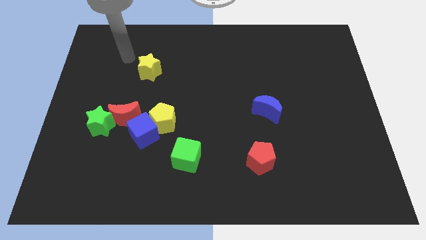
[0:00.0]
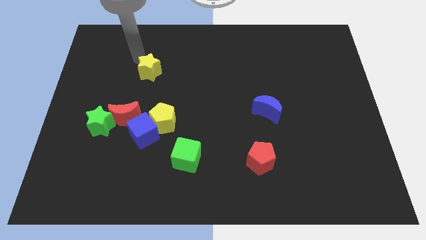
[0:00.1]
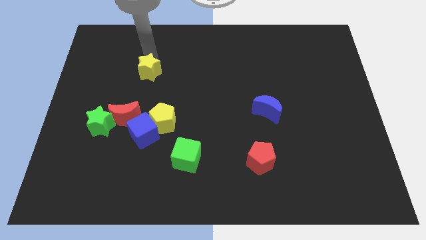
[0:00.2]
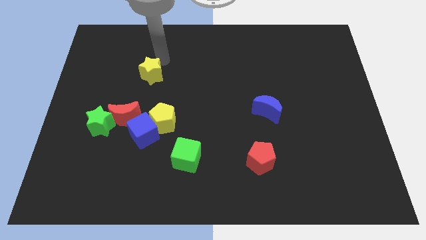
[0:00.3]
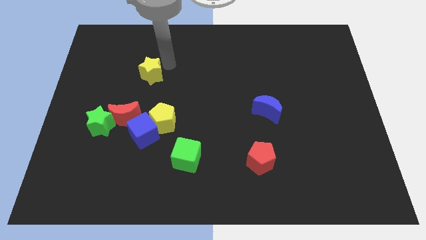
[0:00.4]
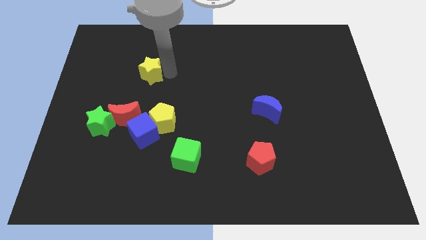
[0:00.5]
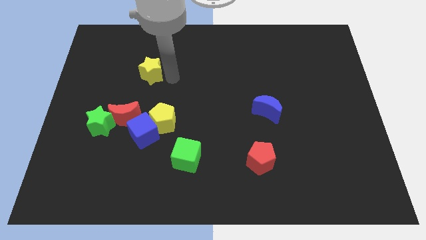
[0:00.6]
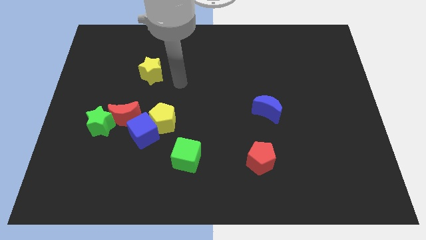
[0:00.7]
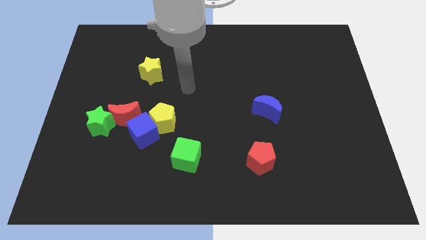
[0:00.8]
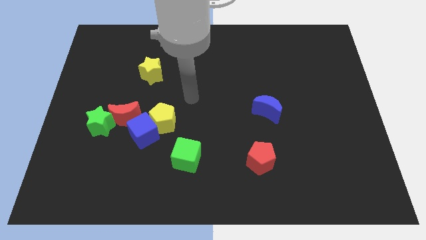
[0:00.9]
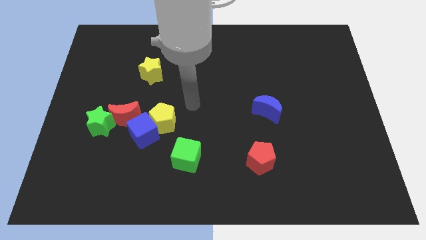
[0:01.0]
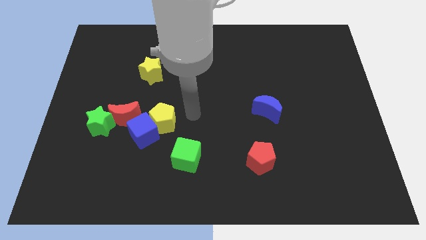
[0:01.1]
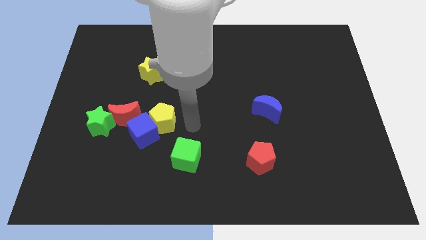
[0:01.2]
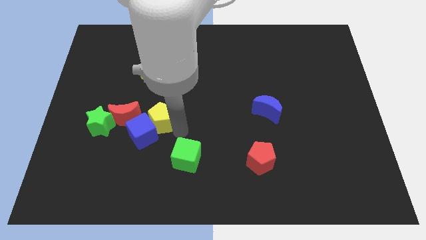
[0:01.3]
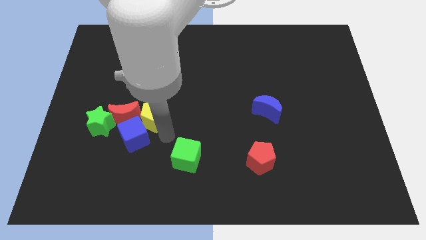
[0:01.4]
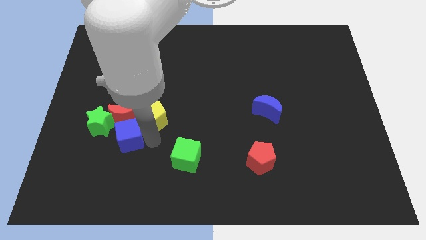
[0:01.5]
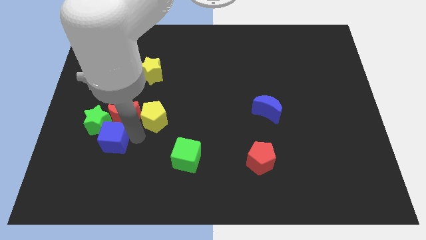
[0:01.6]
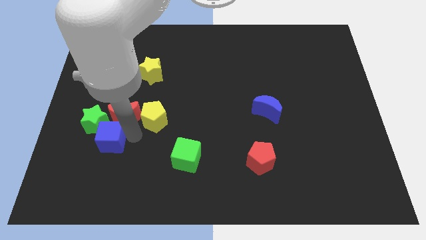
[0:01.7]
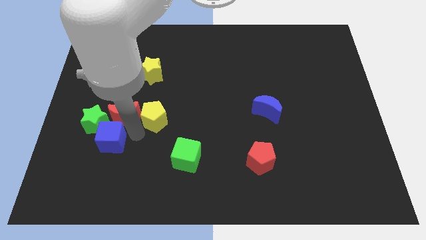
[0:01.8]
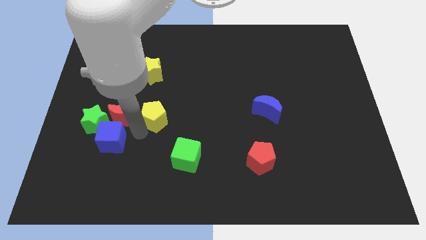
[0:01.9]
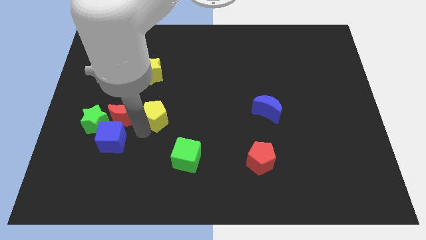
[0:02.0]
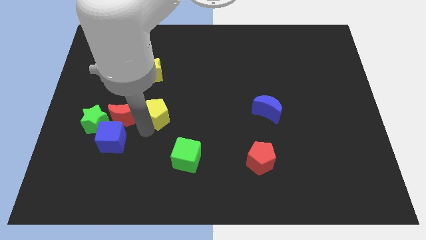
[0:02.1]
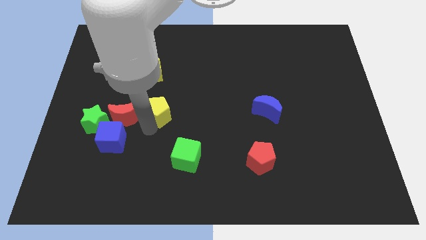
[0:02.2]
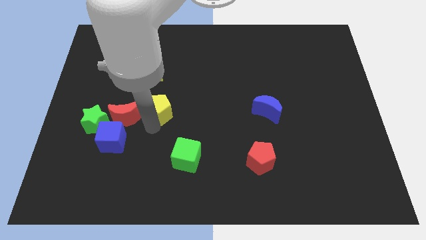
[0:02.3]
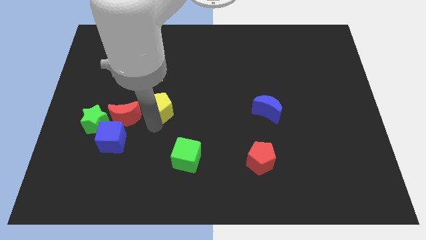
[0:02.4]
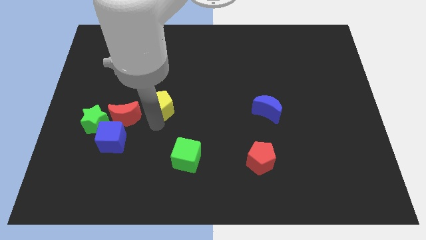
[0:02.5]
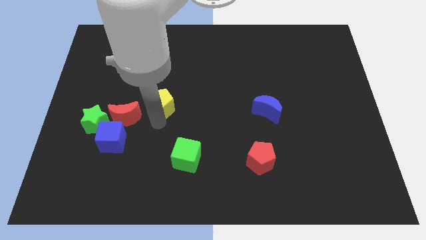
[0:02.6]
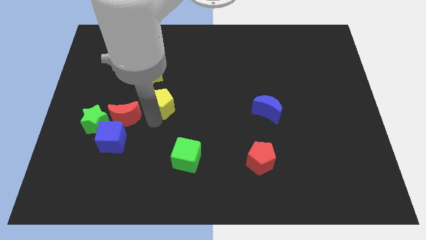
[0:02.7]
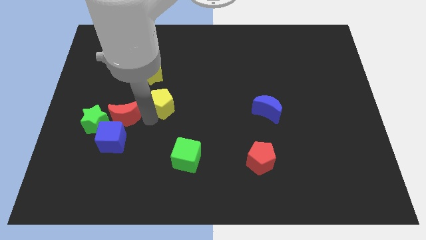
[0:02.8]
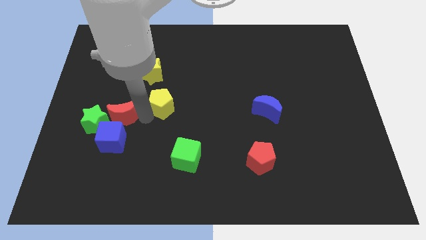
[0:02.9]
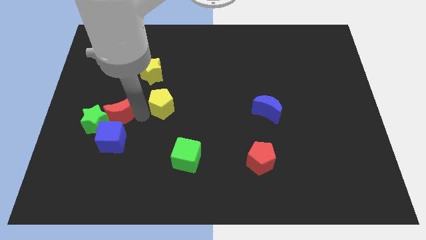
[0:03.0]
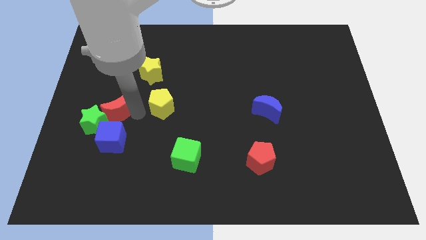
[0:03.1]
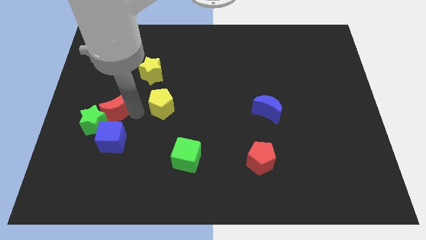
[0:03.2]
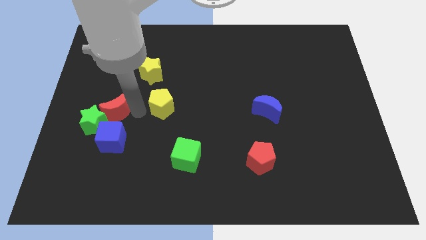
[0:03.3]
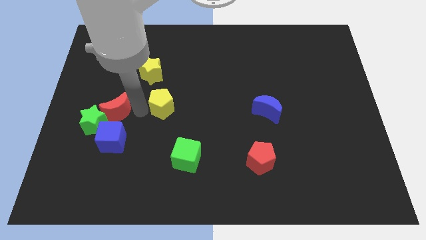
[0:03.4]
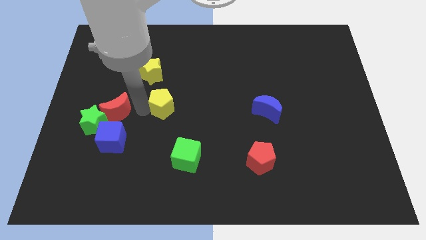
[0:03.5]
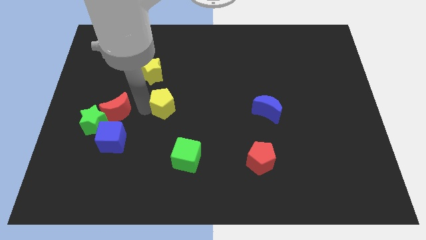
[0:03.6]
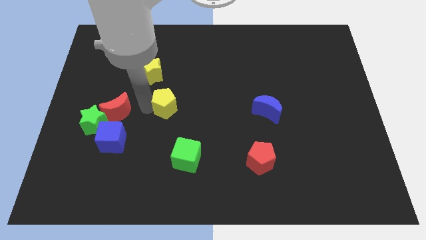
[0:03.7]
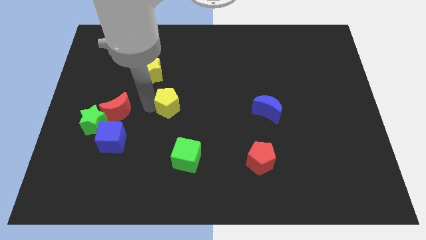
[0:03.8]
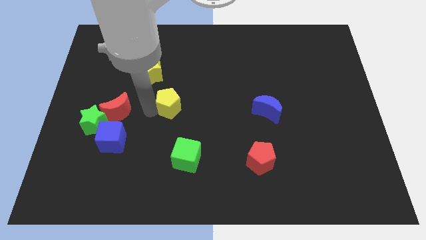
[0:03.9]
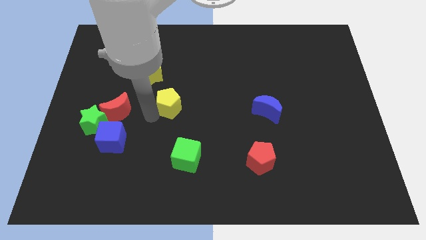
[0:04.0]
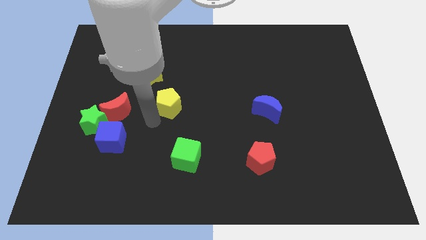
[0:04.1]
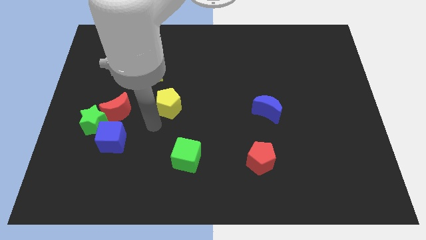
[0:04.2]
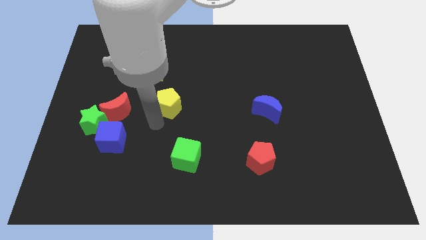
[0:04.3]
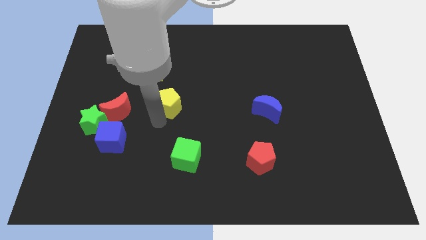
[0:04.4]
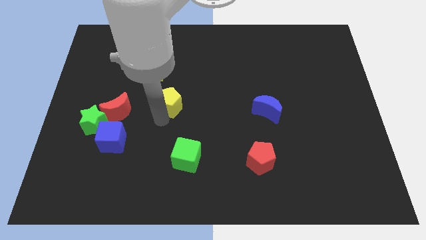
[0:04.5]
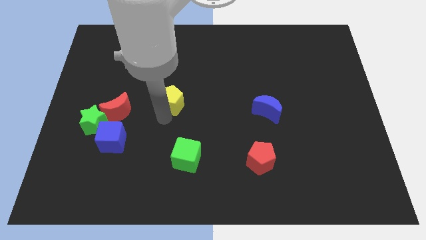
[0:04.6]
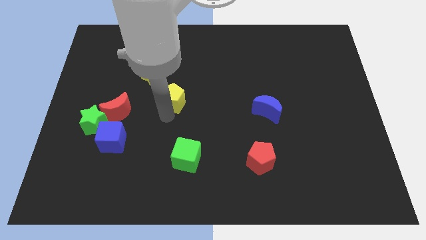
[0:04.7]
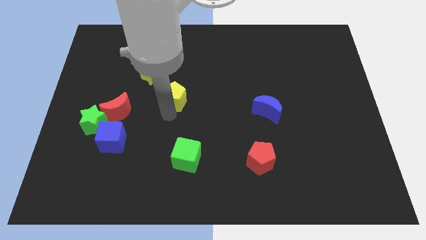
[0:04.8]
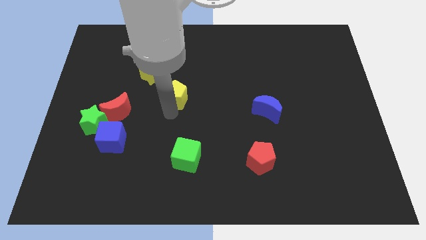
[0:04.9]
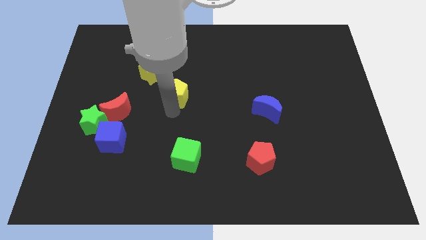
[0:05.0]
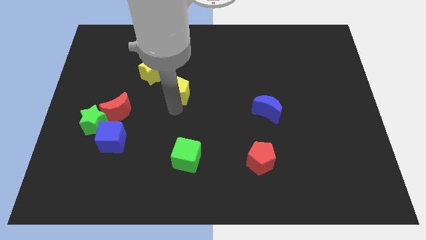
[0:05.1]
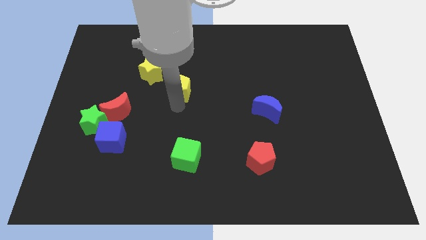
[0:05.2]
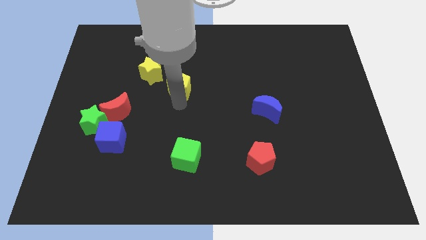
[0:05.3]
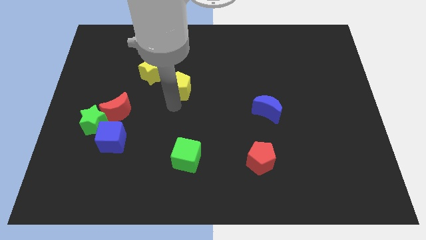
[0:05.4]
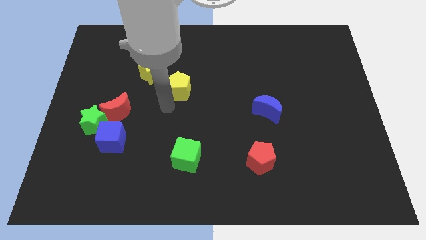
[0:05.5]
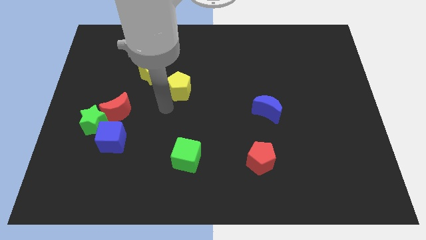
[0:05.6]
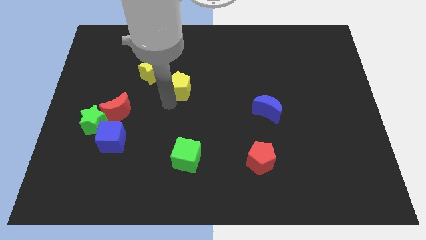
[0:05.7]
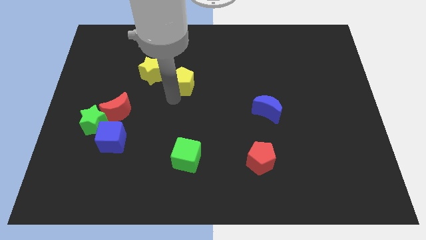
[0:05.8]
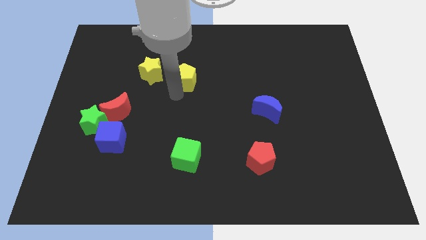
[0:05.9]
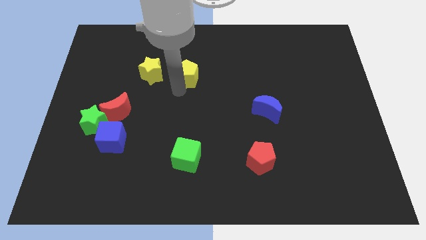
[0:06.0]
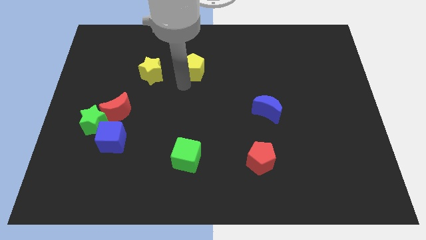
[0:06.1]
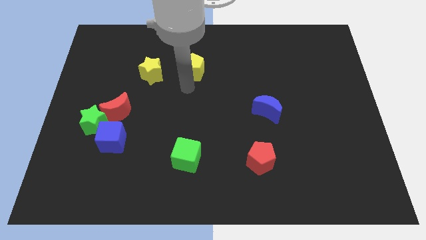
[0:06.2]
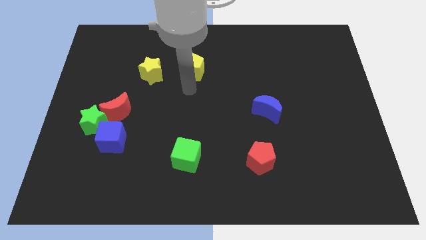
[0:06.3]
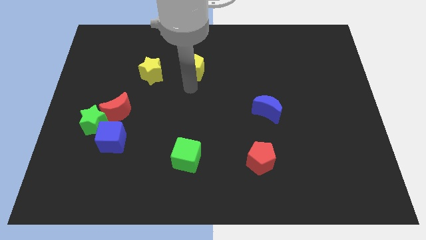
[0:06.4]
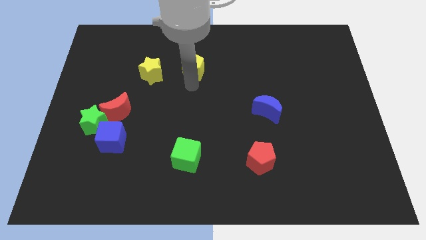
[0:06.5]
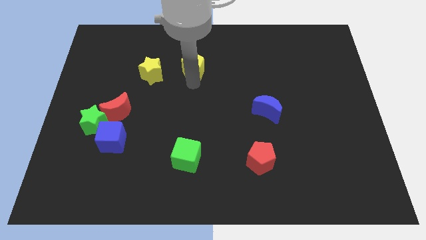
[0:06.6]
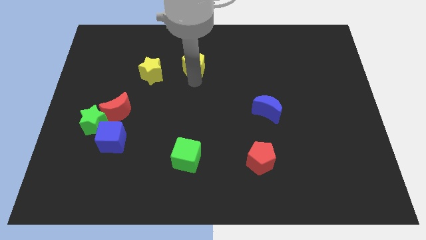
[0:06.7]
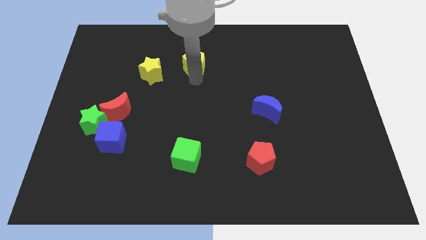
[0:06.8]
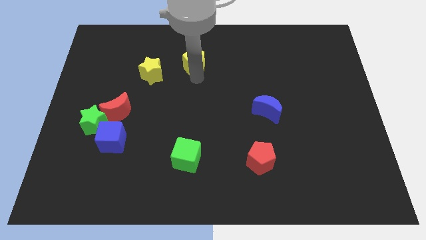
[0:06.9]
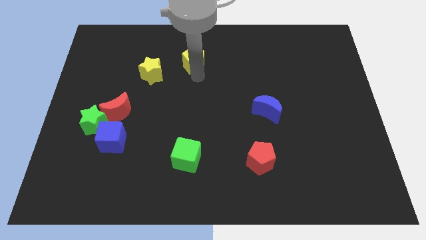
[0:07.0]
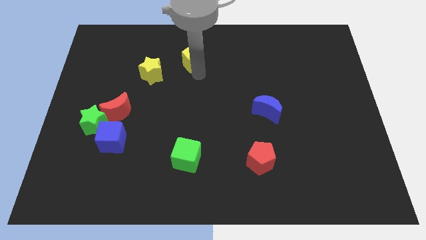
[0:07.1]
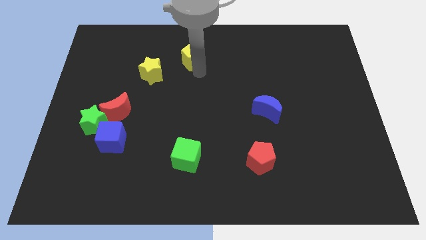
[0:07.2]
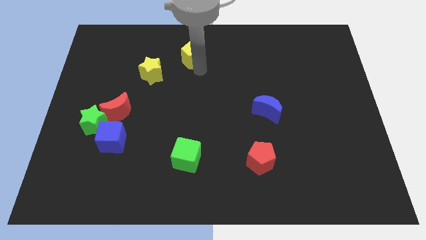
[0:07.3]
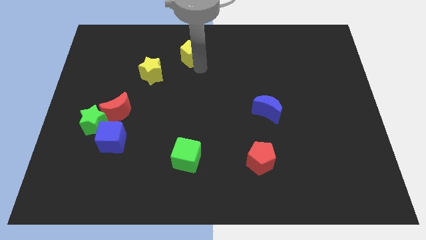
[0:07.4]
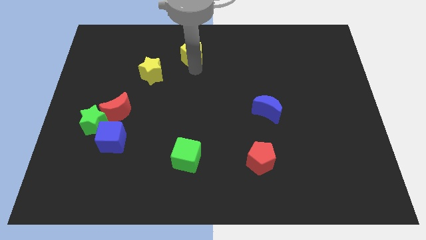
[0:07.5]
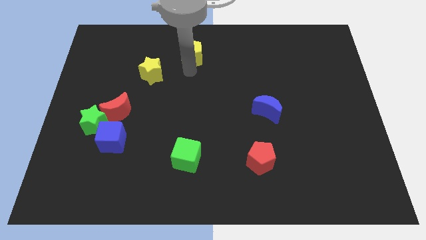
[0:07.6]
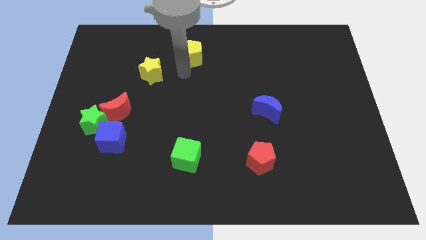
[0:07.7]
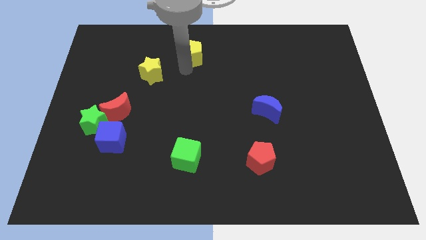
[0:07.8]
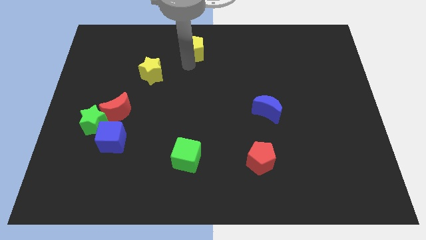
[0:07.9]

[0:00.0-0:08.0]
move the yellow pentagon to the top
